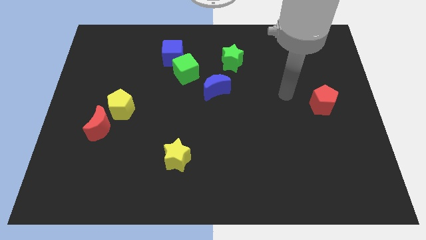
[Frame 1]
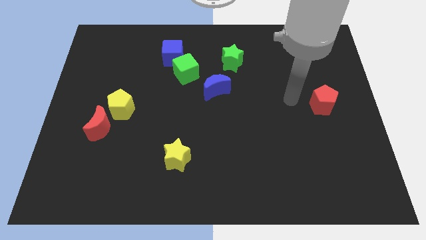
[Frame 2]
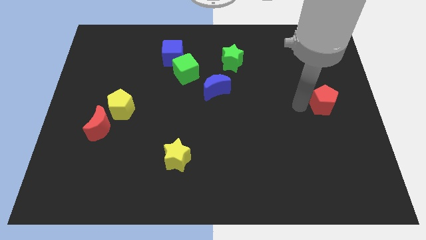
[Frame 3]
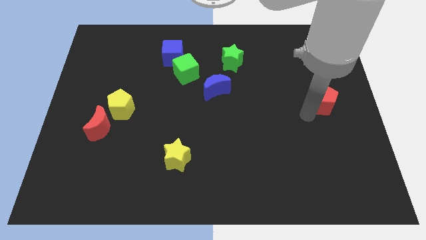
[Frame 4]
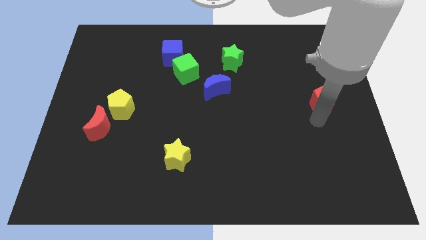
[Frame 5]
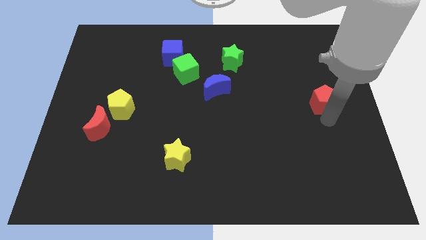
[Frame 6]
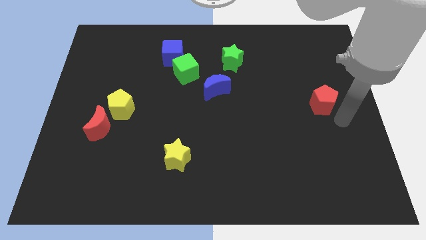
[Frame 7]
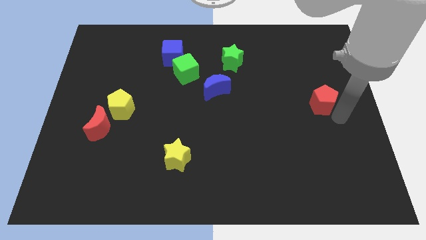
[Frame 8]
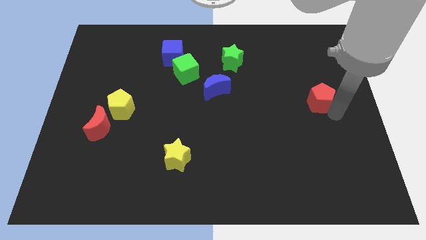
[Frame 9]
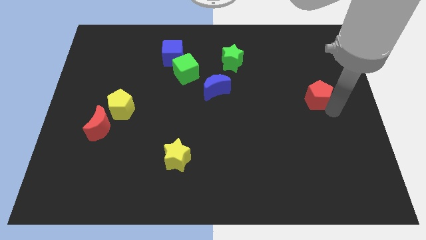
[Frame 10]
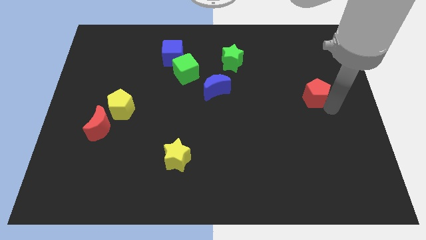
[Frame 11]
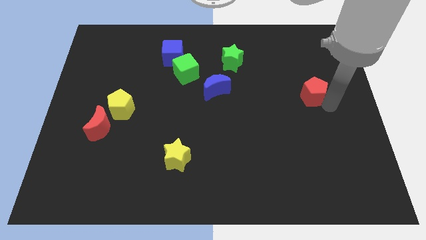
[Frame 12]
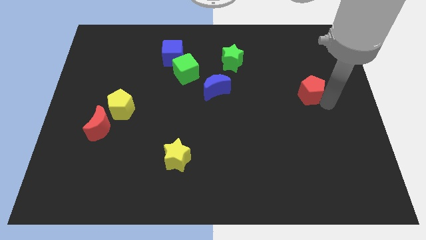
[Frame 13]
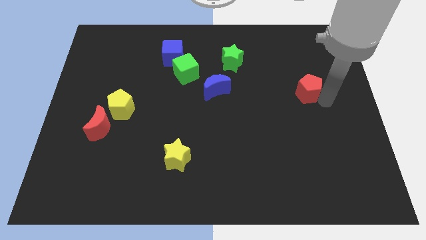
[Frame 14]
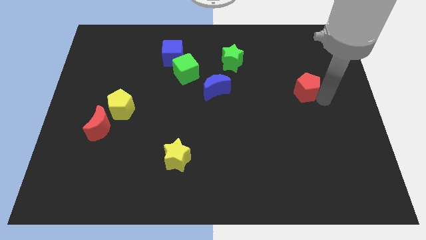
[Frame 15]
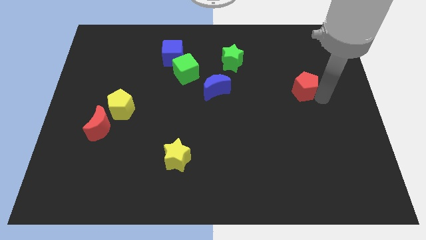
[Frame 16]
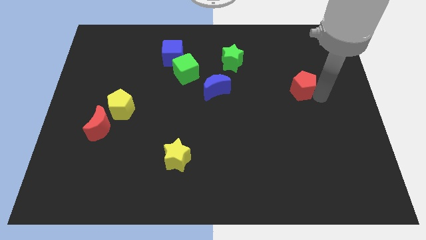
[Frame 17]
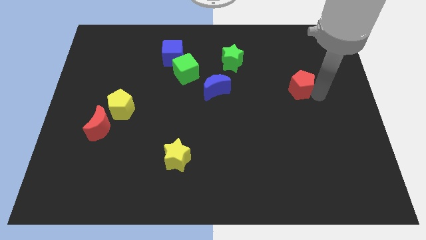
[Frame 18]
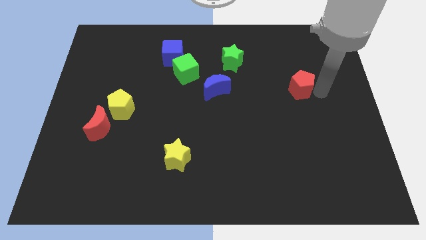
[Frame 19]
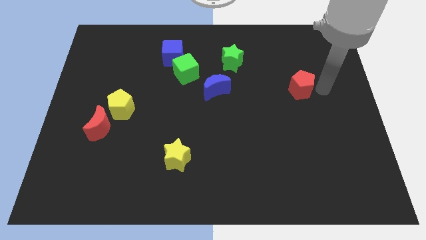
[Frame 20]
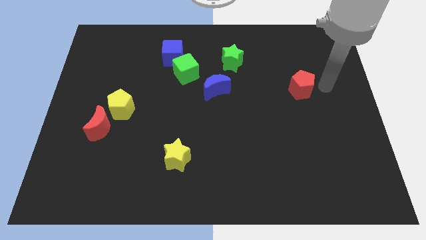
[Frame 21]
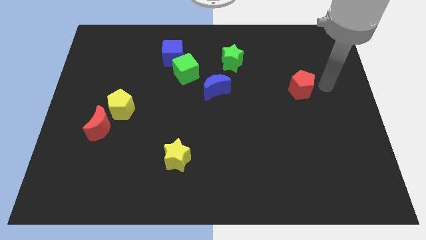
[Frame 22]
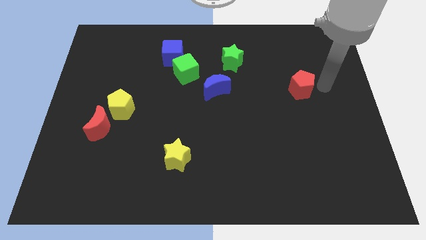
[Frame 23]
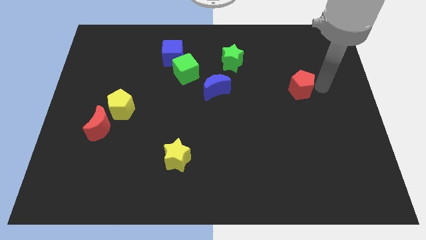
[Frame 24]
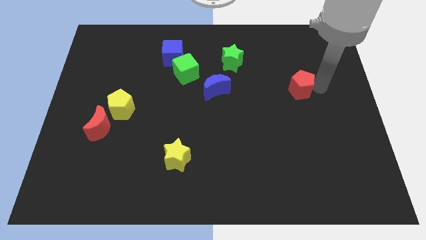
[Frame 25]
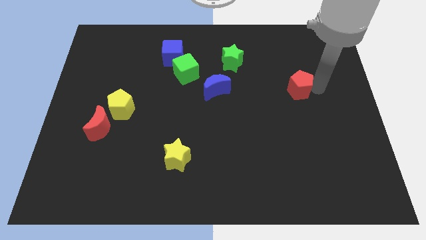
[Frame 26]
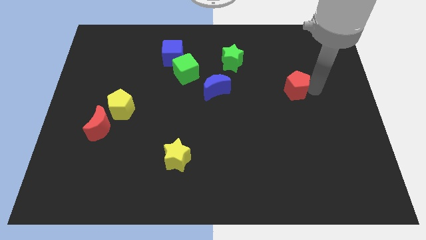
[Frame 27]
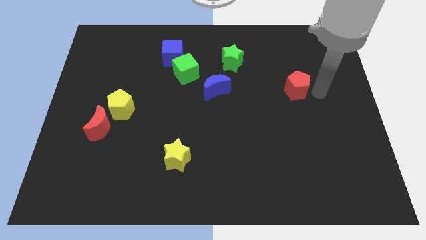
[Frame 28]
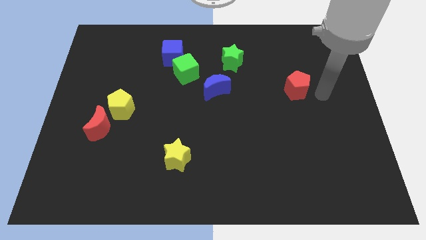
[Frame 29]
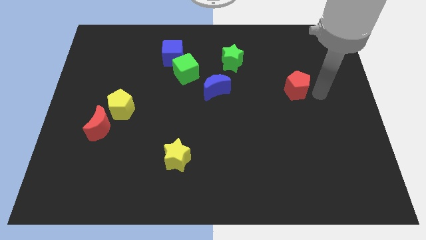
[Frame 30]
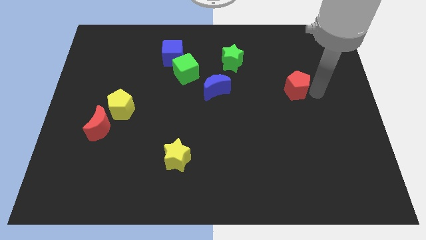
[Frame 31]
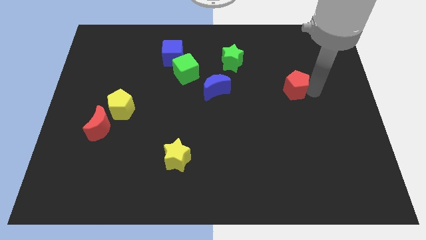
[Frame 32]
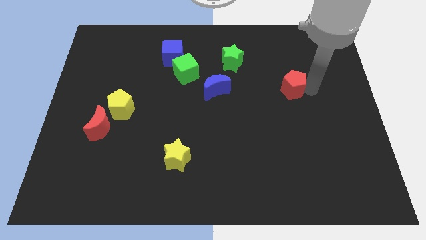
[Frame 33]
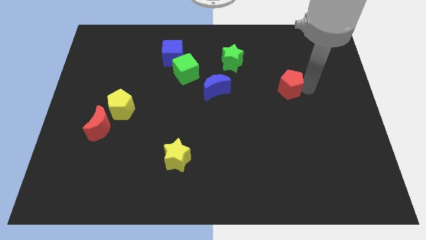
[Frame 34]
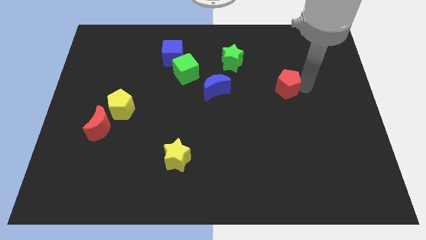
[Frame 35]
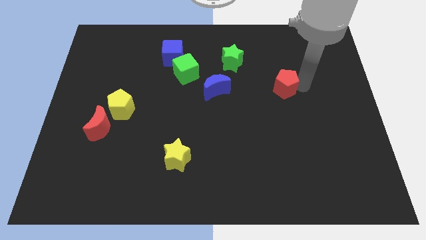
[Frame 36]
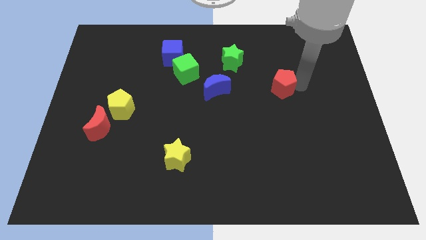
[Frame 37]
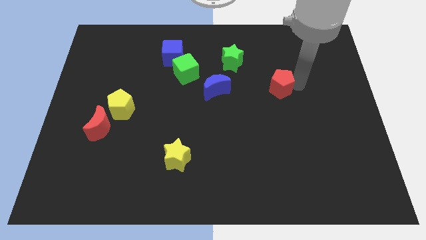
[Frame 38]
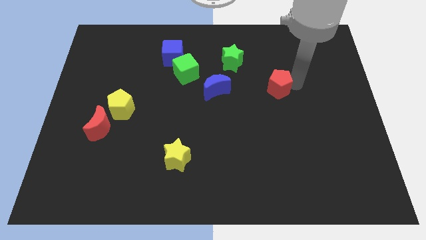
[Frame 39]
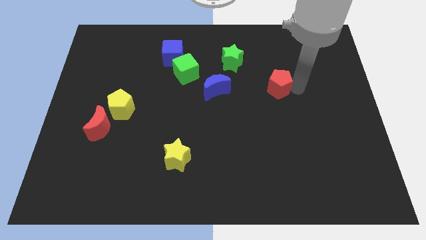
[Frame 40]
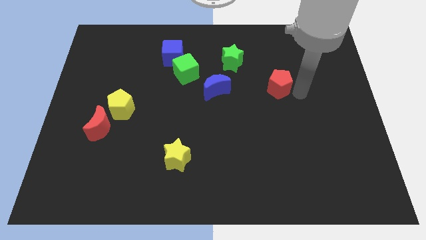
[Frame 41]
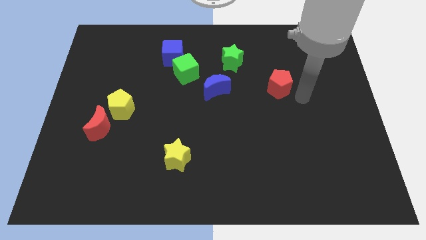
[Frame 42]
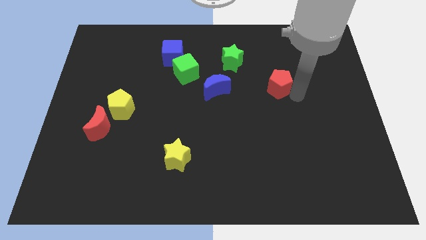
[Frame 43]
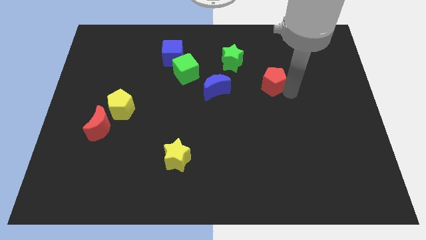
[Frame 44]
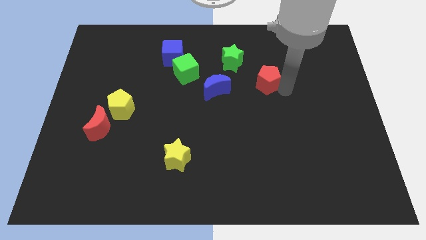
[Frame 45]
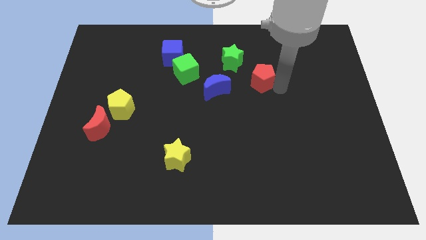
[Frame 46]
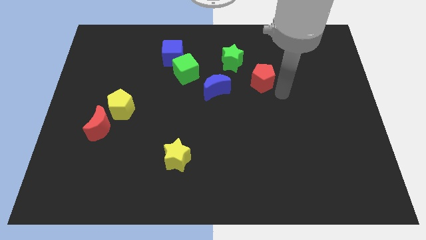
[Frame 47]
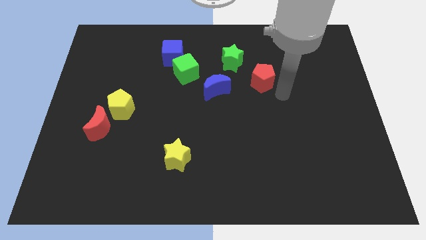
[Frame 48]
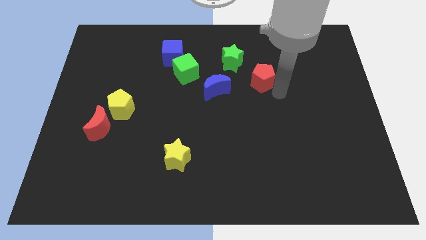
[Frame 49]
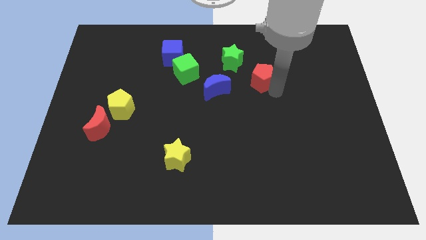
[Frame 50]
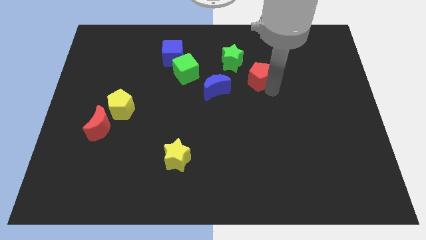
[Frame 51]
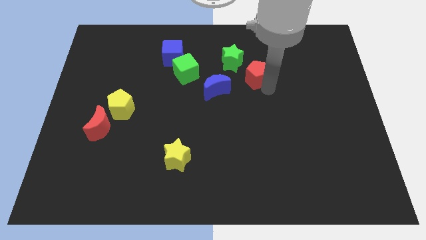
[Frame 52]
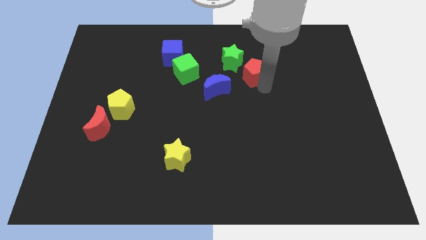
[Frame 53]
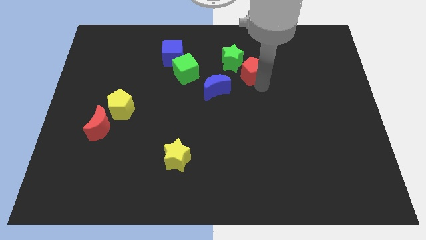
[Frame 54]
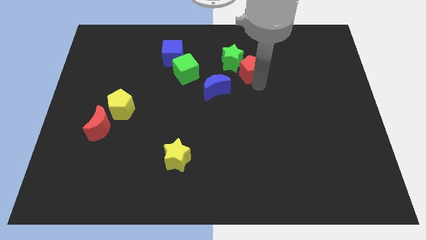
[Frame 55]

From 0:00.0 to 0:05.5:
move the red pentagon towards the green star

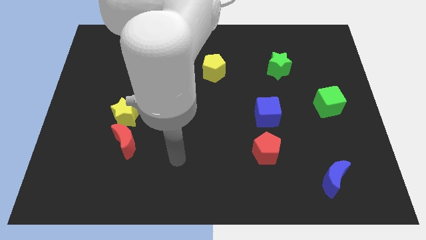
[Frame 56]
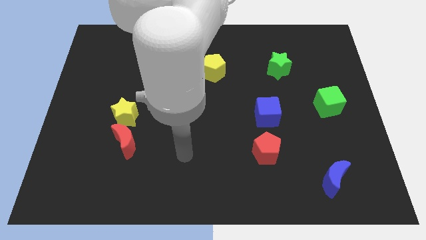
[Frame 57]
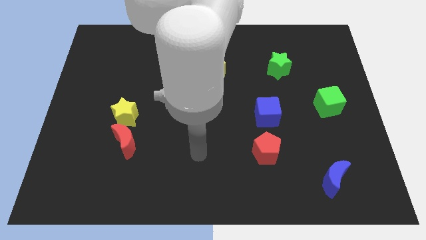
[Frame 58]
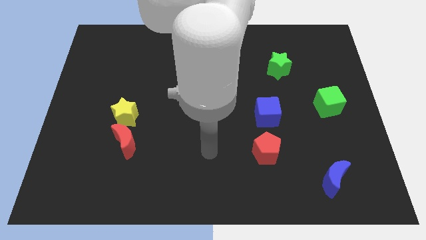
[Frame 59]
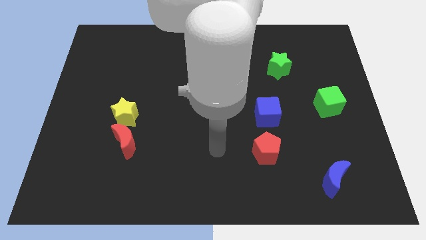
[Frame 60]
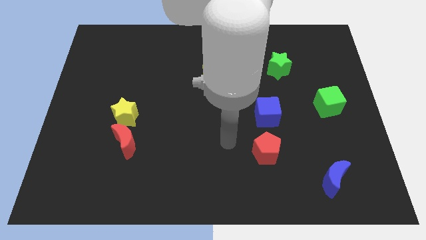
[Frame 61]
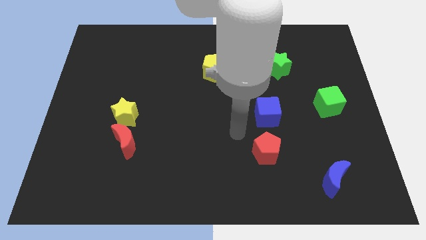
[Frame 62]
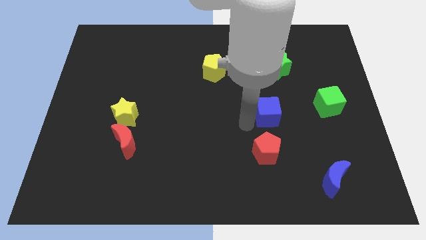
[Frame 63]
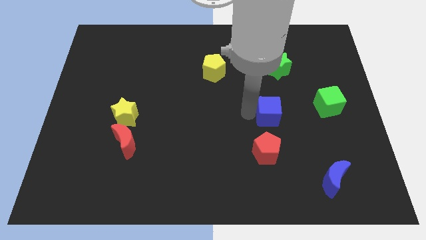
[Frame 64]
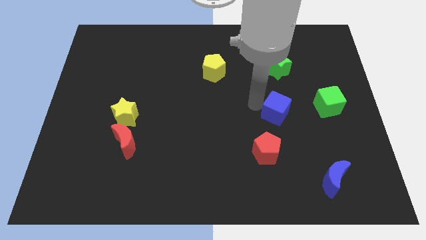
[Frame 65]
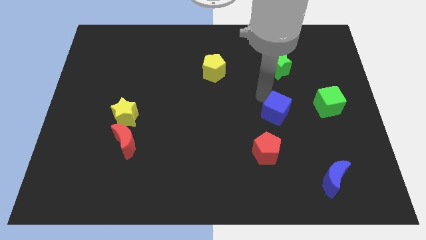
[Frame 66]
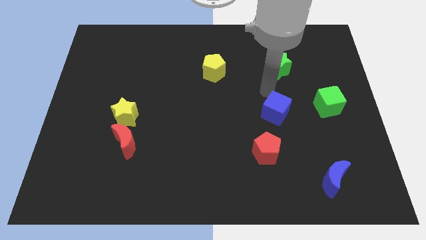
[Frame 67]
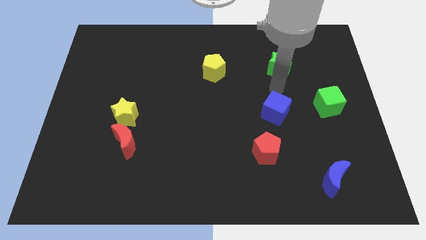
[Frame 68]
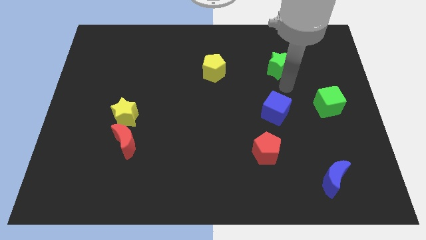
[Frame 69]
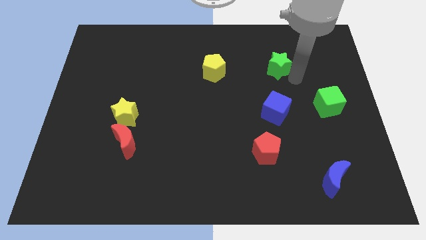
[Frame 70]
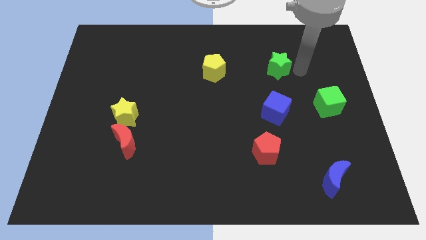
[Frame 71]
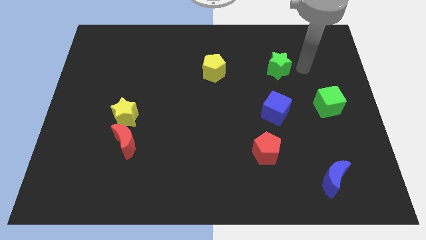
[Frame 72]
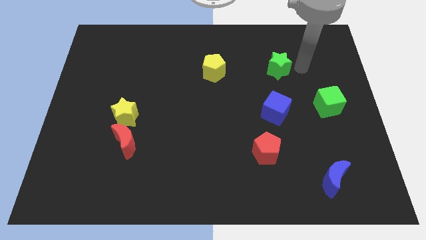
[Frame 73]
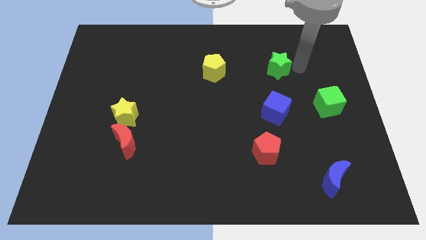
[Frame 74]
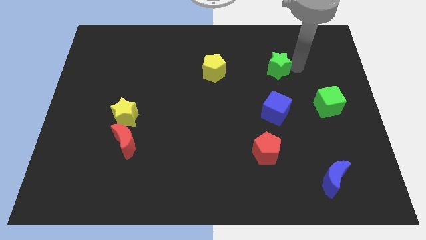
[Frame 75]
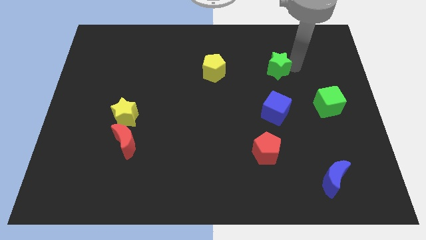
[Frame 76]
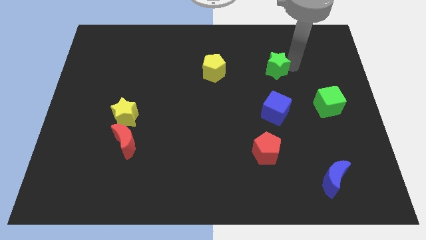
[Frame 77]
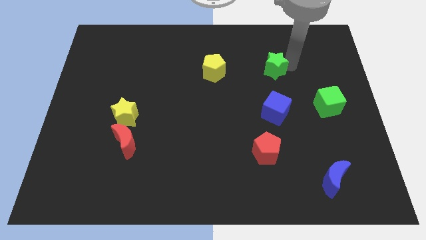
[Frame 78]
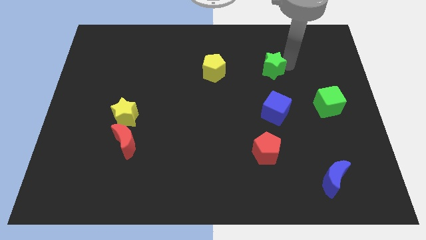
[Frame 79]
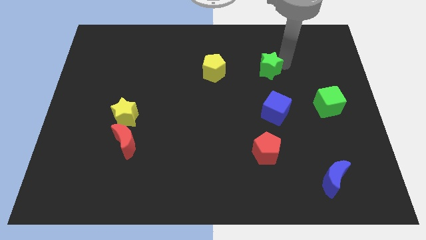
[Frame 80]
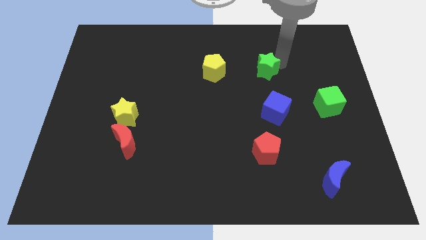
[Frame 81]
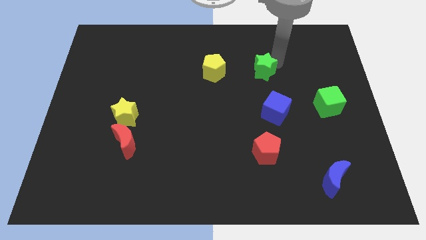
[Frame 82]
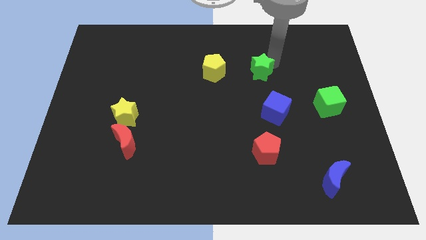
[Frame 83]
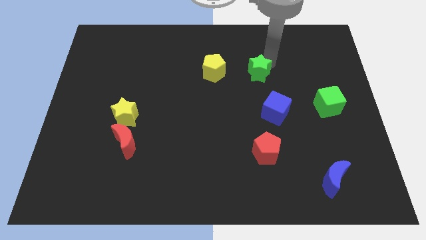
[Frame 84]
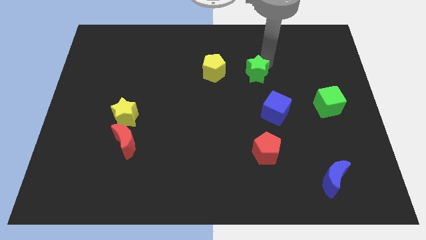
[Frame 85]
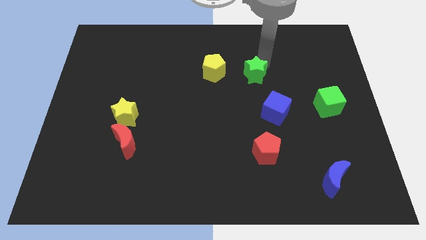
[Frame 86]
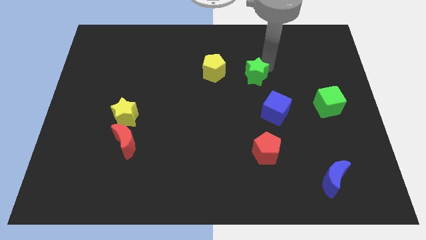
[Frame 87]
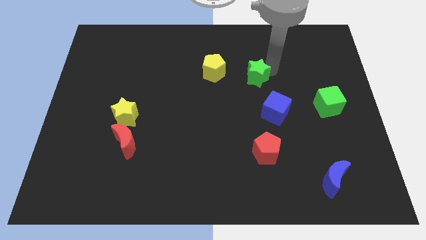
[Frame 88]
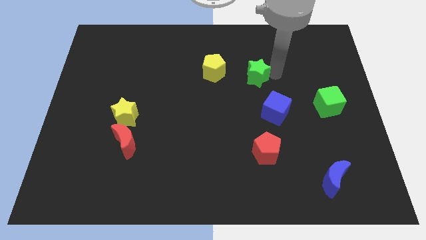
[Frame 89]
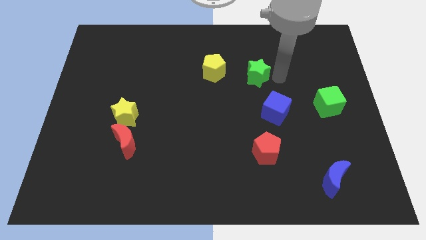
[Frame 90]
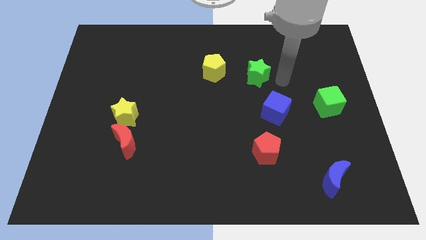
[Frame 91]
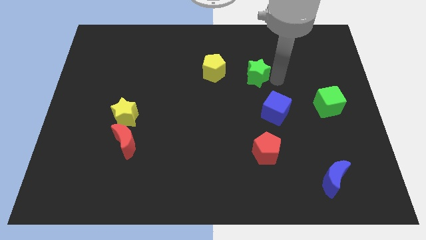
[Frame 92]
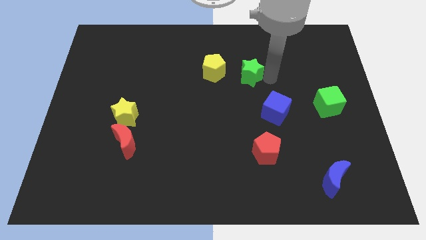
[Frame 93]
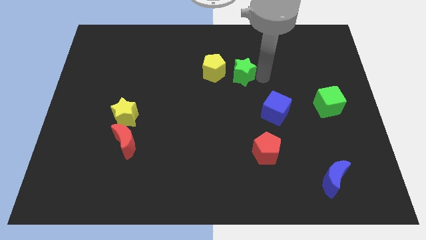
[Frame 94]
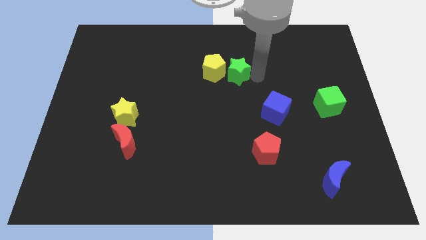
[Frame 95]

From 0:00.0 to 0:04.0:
move the green star close to the yellow pentagon
